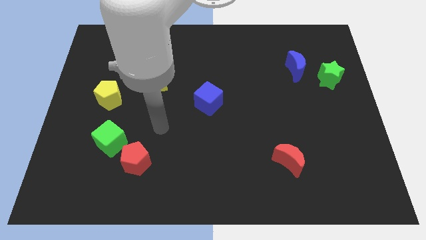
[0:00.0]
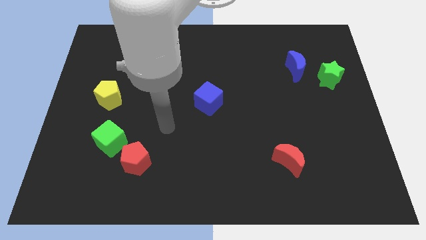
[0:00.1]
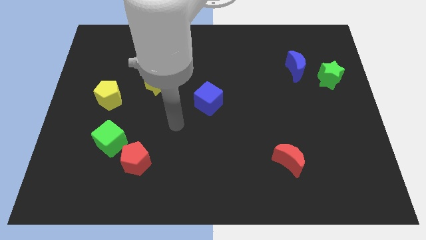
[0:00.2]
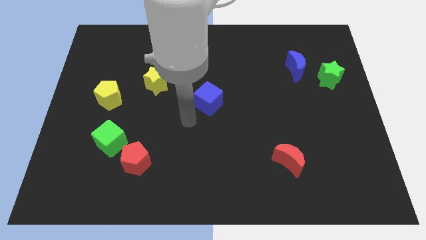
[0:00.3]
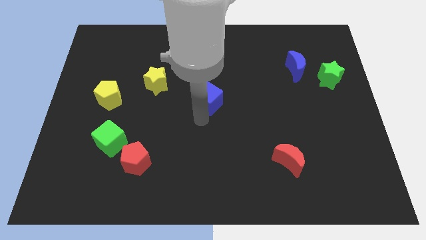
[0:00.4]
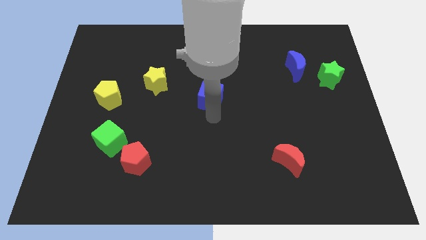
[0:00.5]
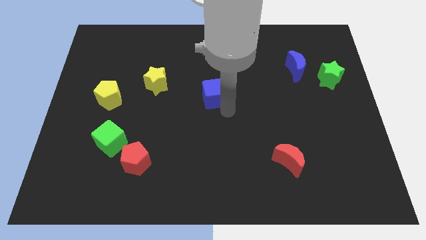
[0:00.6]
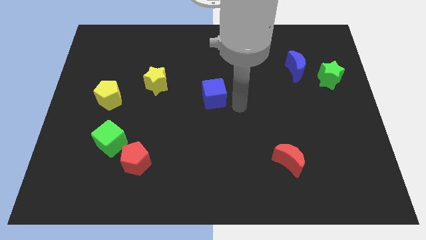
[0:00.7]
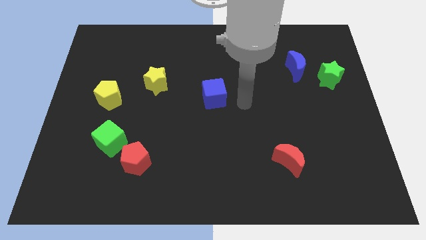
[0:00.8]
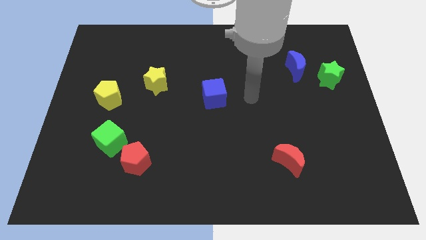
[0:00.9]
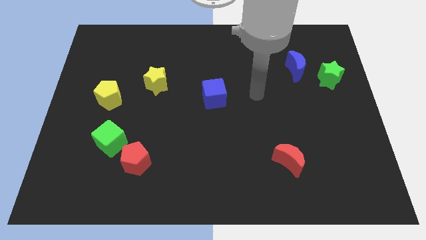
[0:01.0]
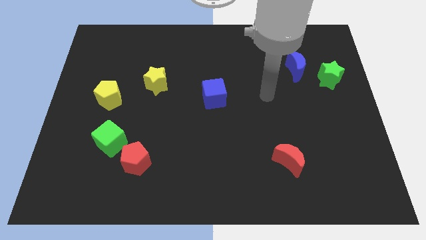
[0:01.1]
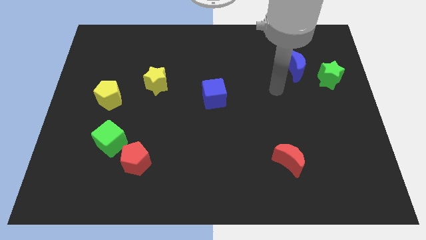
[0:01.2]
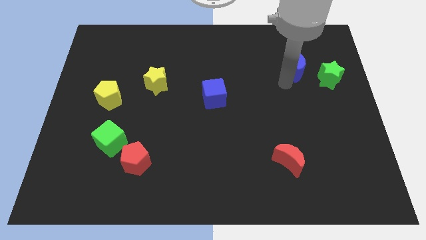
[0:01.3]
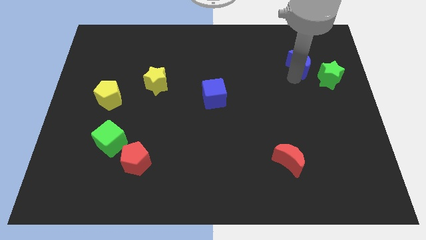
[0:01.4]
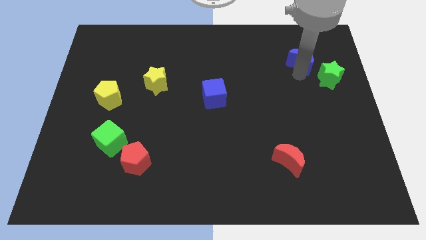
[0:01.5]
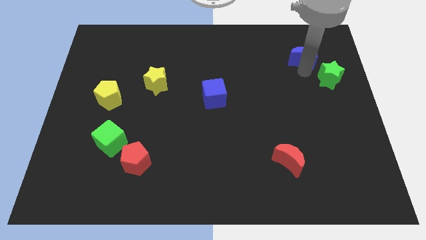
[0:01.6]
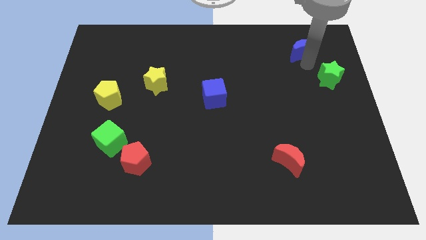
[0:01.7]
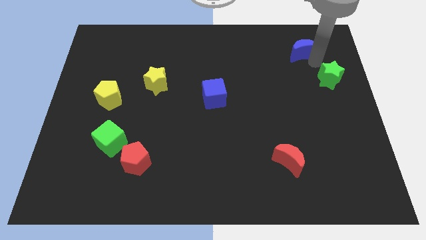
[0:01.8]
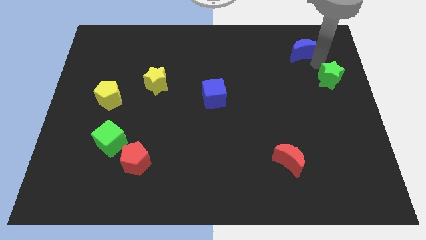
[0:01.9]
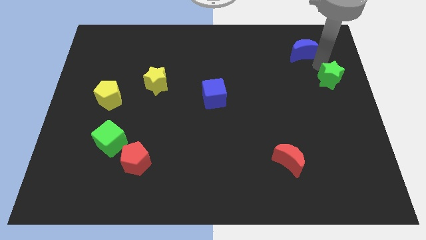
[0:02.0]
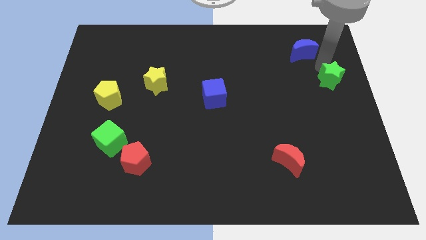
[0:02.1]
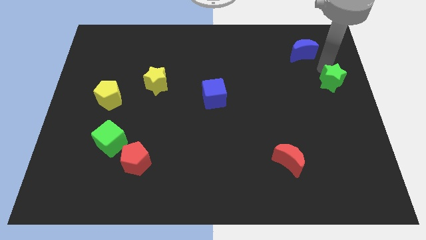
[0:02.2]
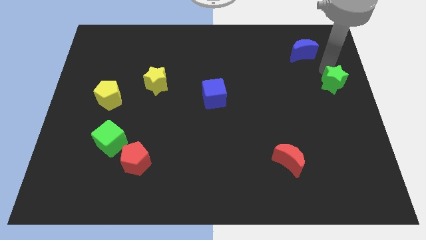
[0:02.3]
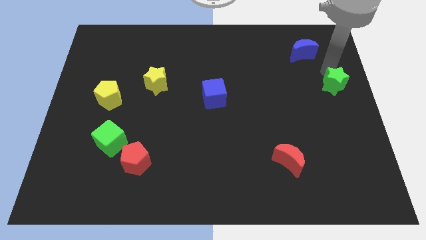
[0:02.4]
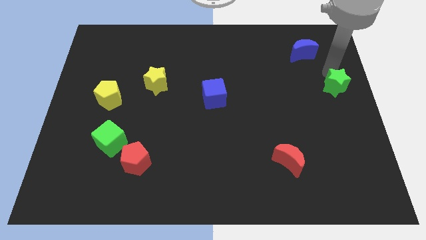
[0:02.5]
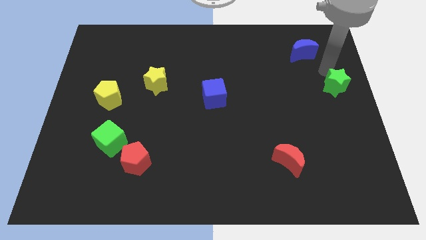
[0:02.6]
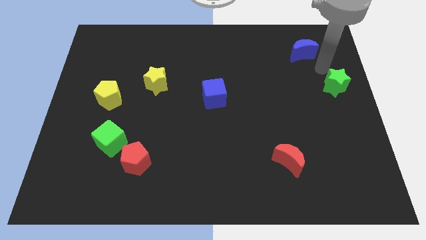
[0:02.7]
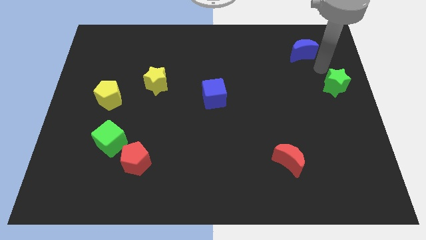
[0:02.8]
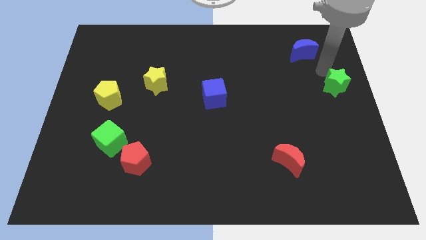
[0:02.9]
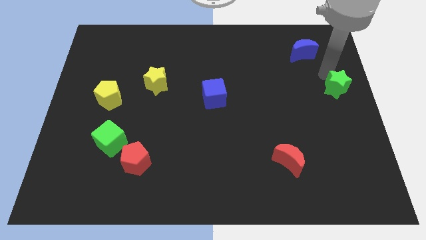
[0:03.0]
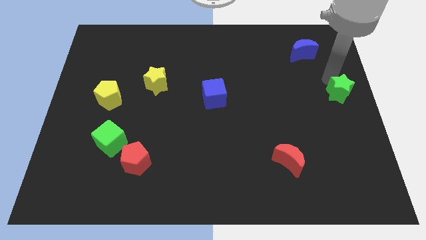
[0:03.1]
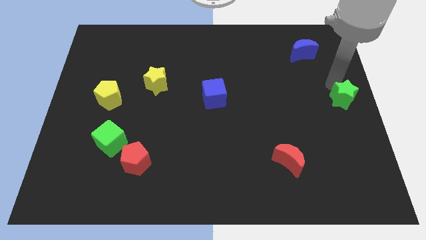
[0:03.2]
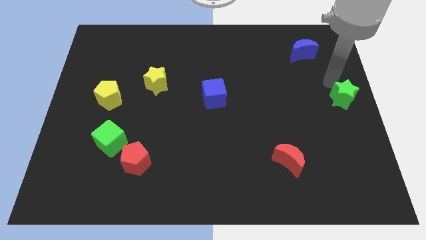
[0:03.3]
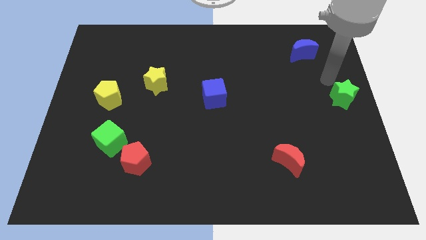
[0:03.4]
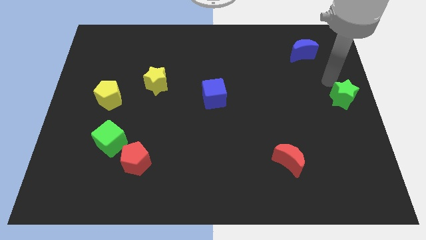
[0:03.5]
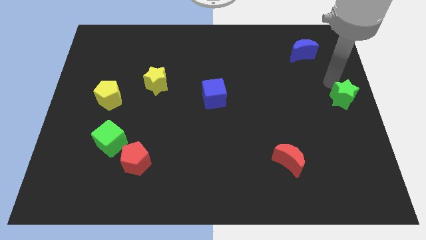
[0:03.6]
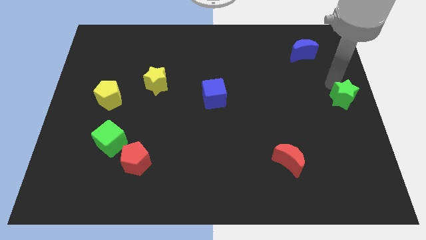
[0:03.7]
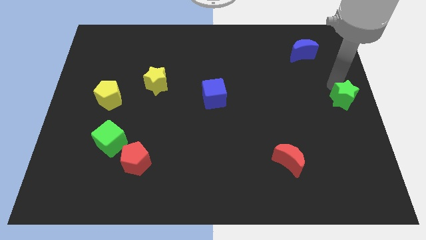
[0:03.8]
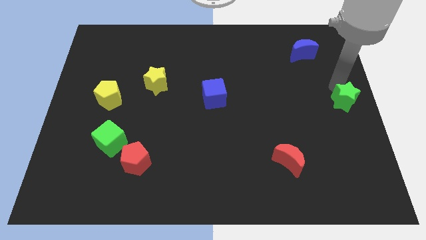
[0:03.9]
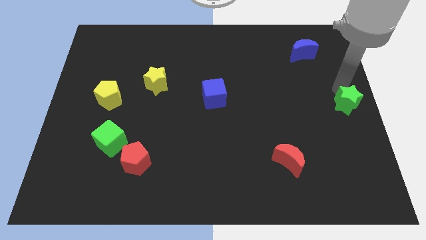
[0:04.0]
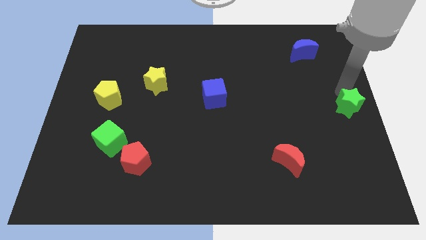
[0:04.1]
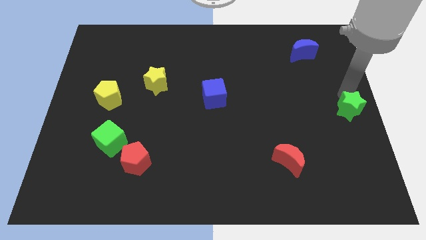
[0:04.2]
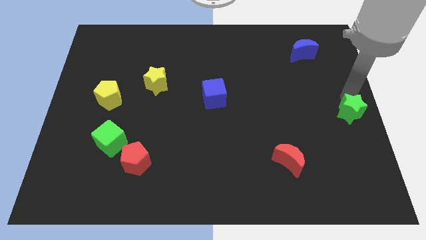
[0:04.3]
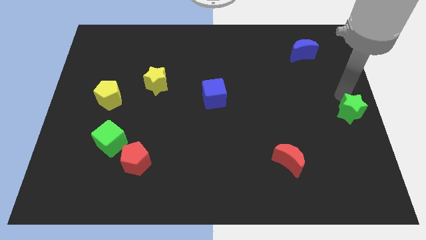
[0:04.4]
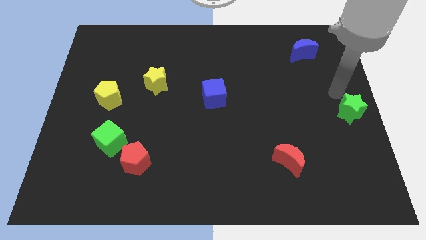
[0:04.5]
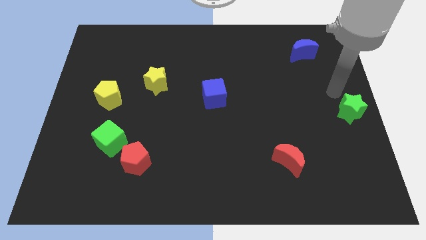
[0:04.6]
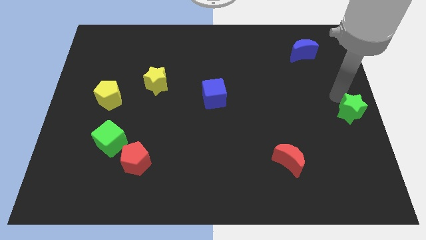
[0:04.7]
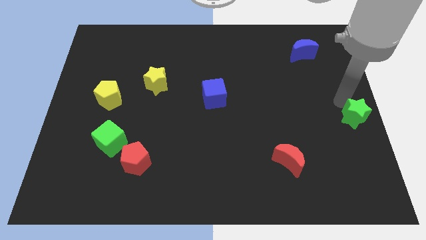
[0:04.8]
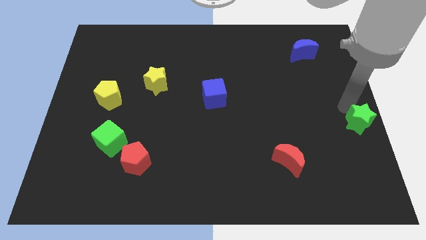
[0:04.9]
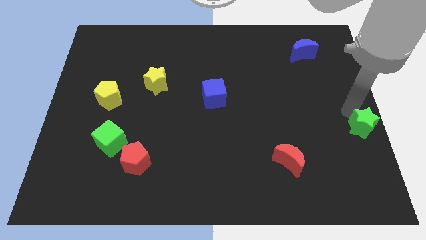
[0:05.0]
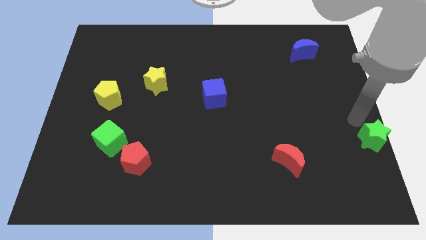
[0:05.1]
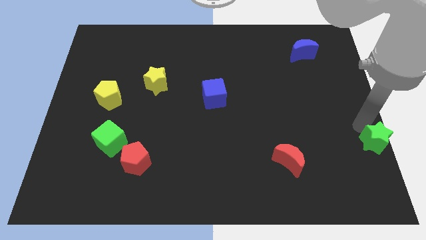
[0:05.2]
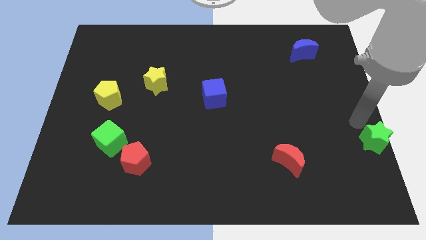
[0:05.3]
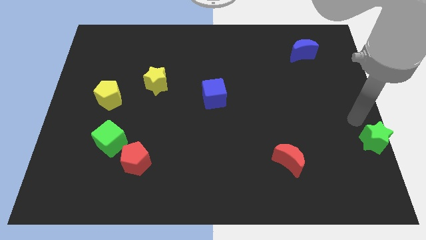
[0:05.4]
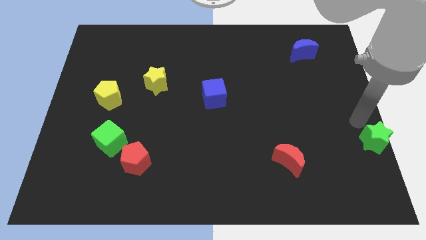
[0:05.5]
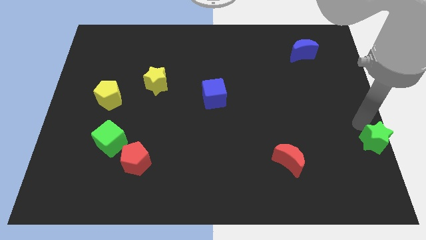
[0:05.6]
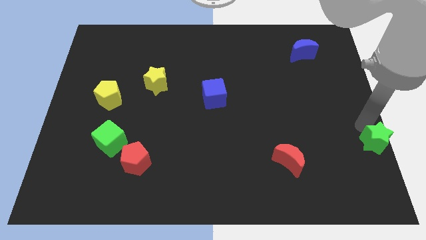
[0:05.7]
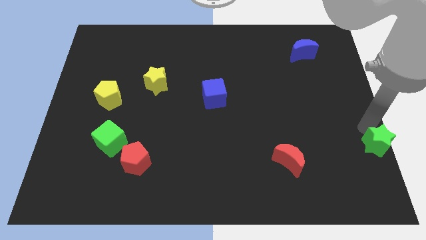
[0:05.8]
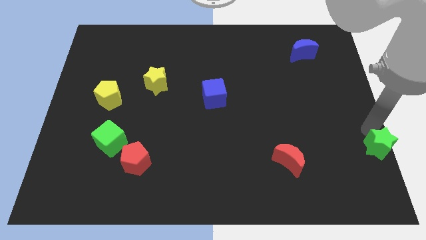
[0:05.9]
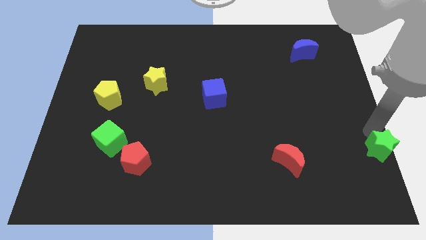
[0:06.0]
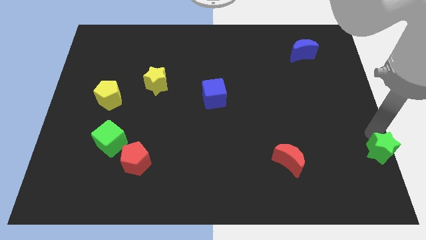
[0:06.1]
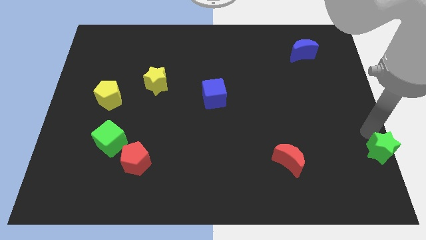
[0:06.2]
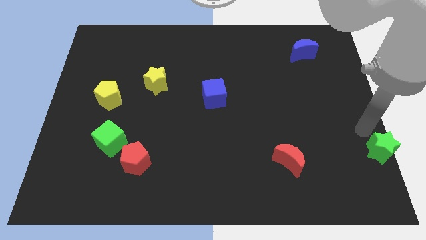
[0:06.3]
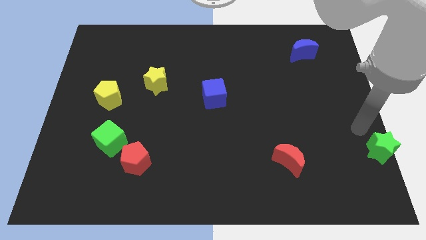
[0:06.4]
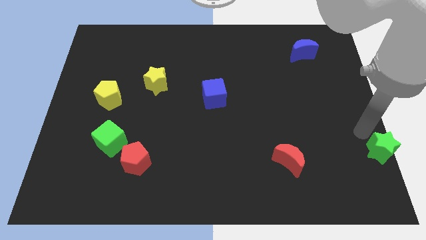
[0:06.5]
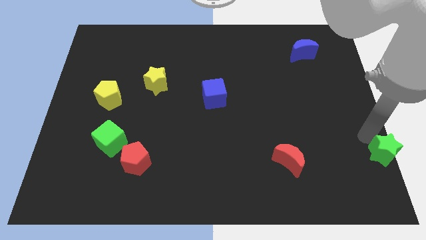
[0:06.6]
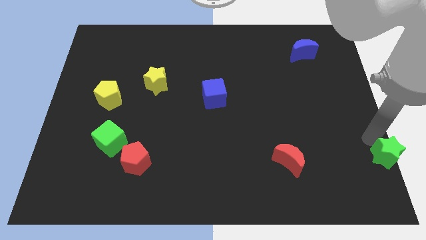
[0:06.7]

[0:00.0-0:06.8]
put the green star to the bottom right

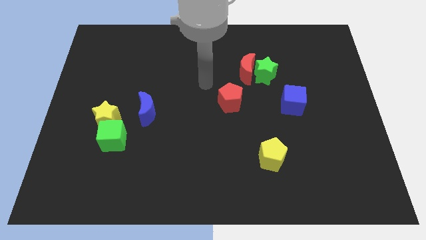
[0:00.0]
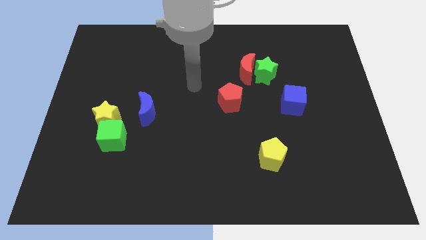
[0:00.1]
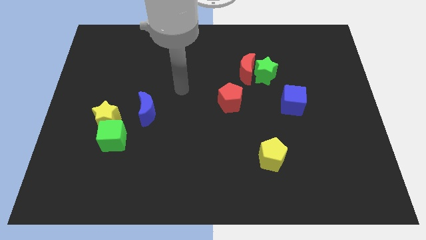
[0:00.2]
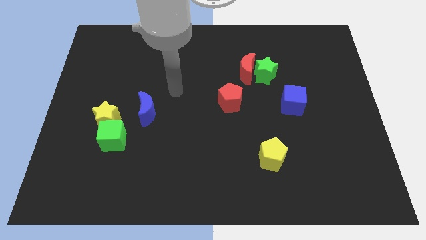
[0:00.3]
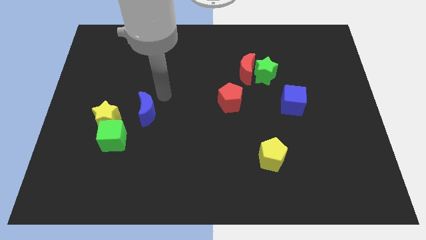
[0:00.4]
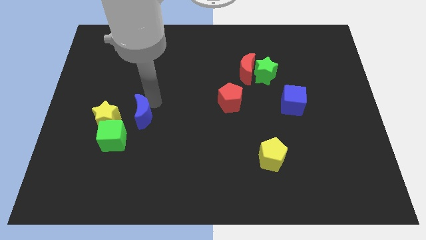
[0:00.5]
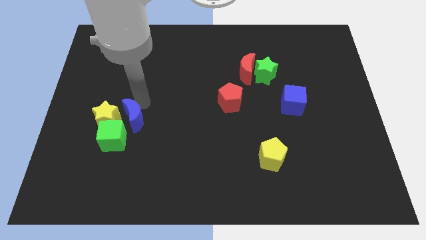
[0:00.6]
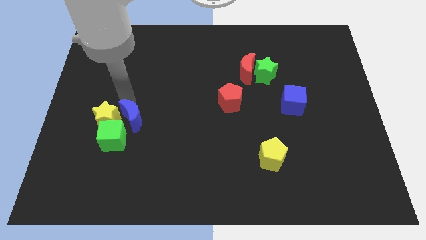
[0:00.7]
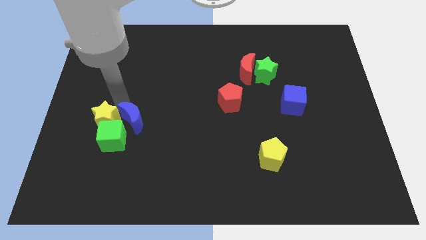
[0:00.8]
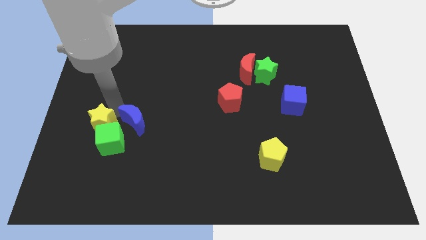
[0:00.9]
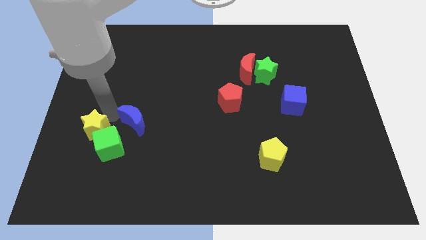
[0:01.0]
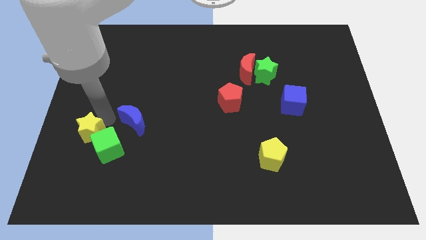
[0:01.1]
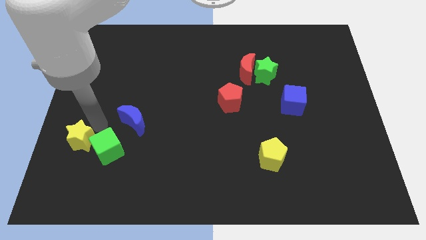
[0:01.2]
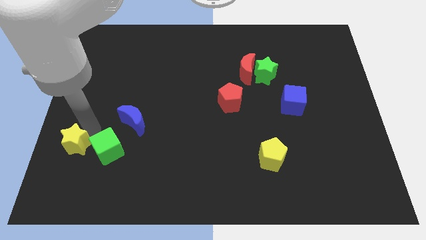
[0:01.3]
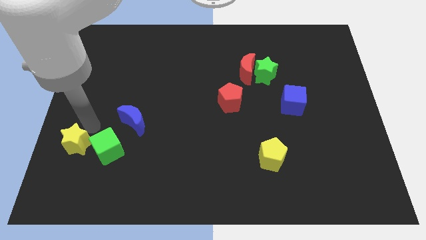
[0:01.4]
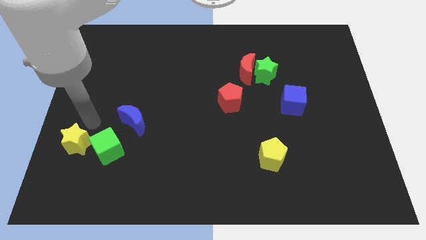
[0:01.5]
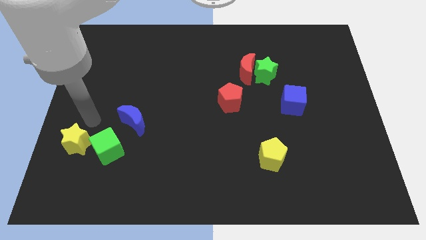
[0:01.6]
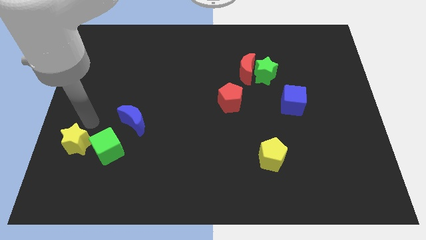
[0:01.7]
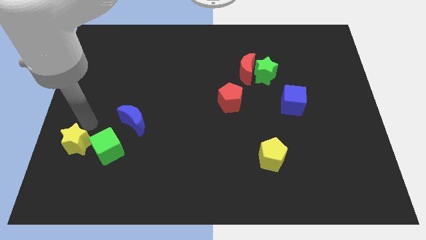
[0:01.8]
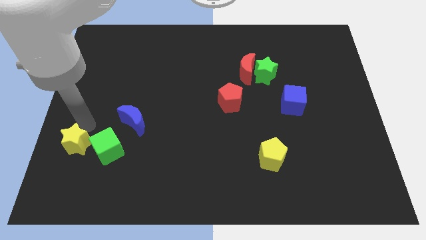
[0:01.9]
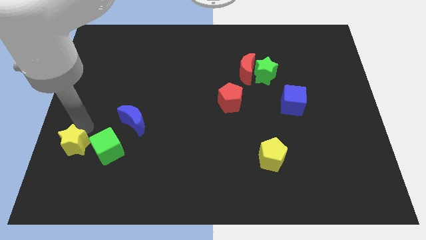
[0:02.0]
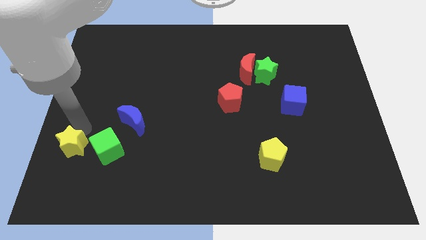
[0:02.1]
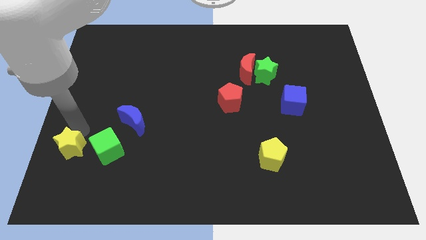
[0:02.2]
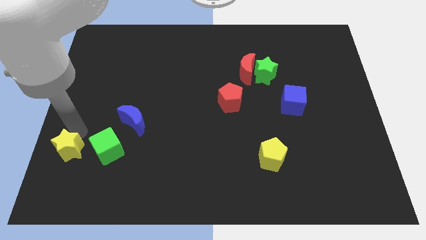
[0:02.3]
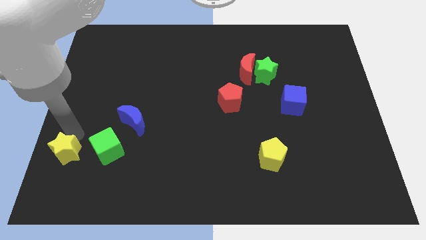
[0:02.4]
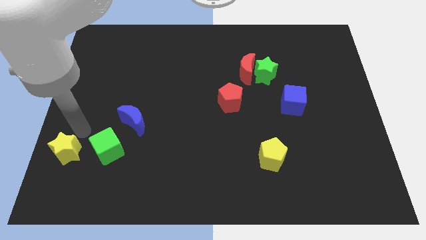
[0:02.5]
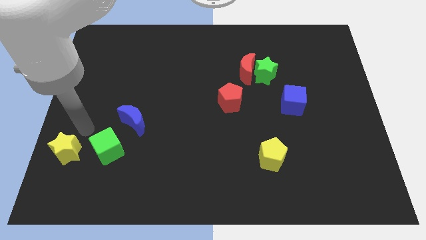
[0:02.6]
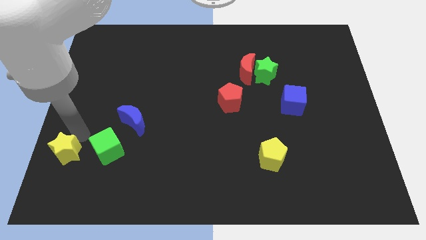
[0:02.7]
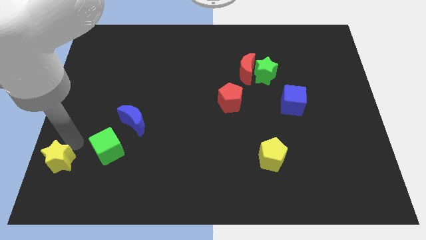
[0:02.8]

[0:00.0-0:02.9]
put the yellow star to the bottom left of the board
